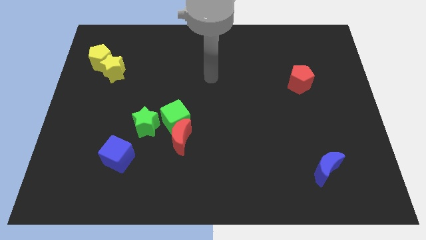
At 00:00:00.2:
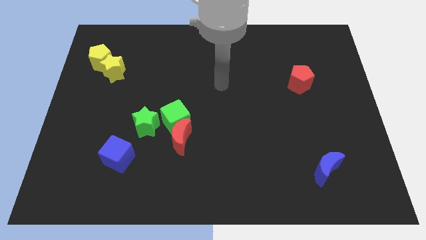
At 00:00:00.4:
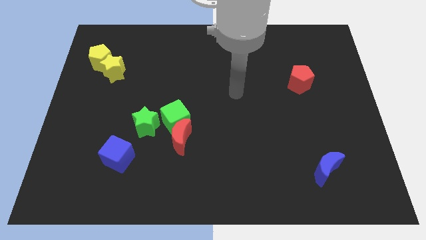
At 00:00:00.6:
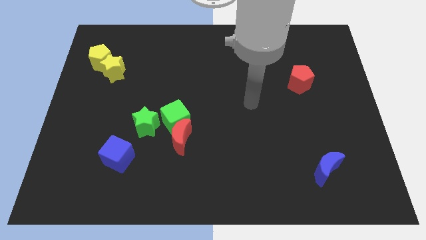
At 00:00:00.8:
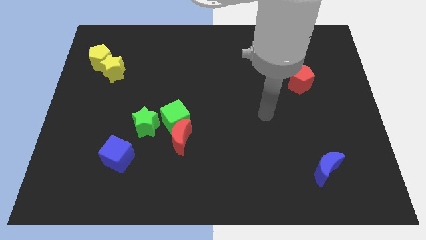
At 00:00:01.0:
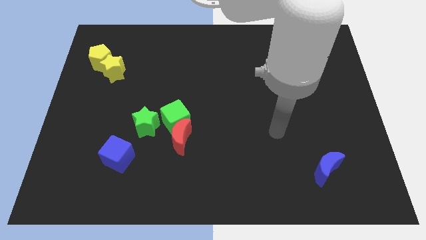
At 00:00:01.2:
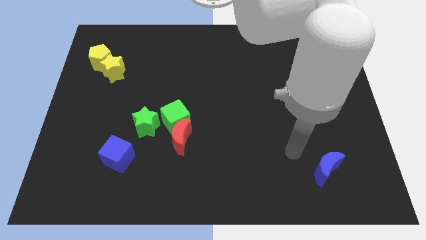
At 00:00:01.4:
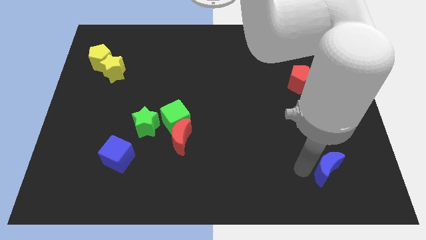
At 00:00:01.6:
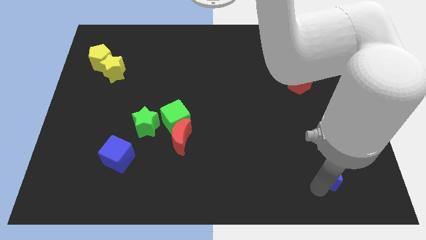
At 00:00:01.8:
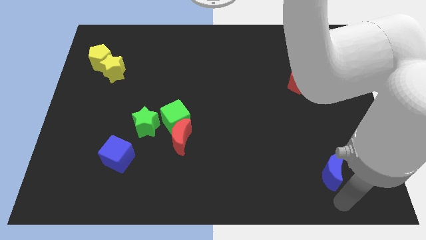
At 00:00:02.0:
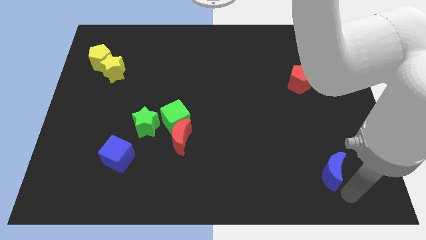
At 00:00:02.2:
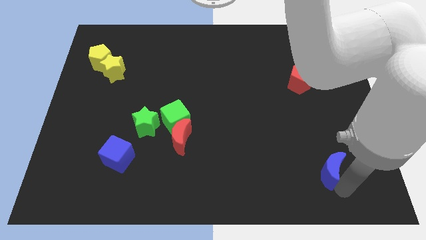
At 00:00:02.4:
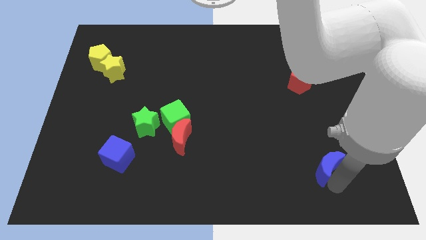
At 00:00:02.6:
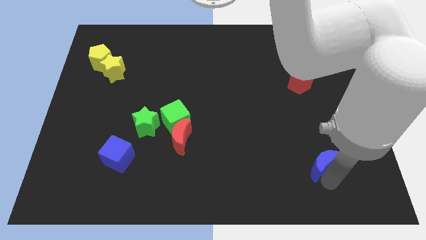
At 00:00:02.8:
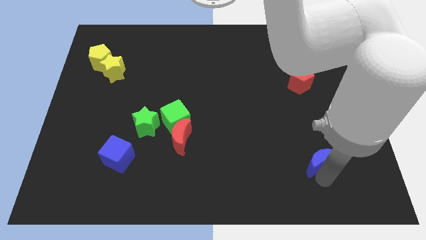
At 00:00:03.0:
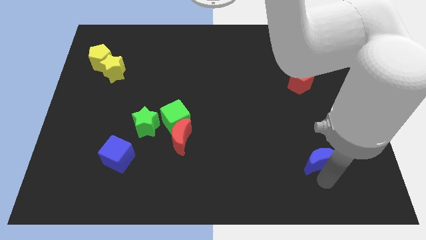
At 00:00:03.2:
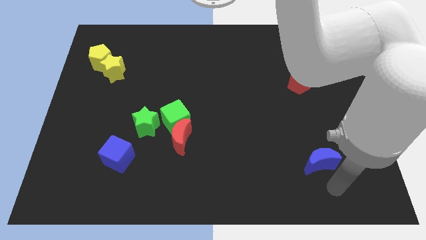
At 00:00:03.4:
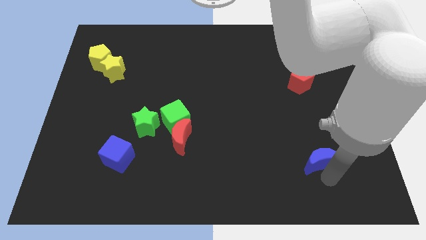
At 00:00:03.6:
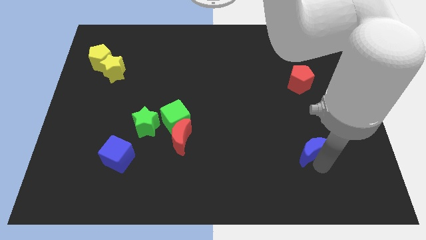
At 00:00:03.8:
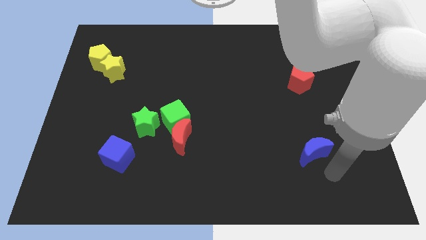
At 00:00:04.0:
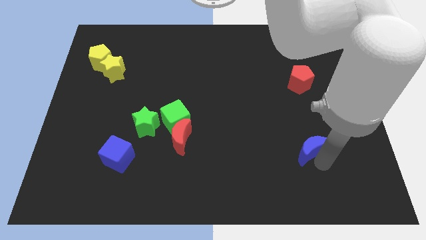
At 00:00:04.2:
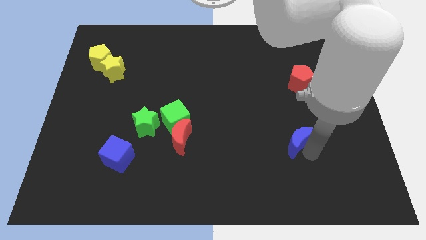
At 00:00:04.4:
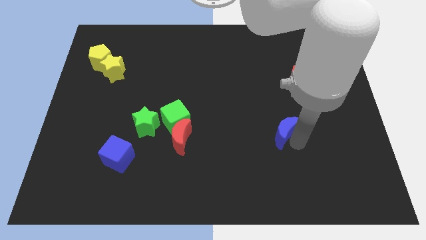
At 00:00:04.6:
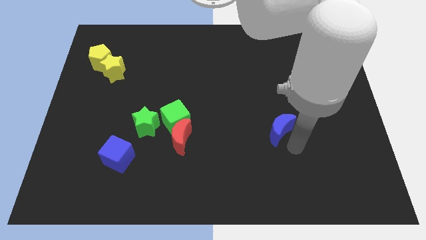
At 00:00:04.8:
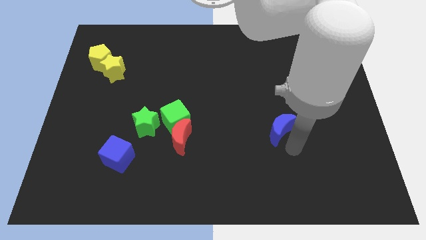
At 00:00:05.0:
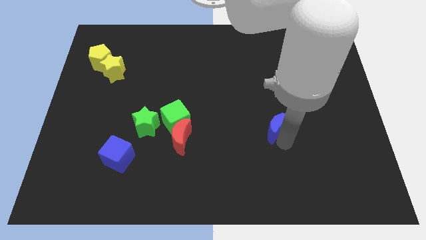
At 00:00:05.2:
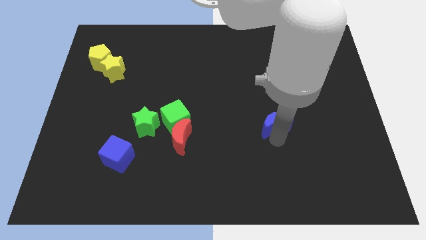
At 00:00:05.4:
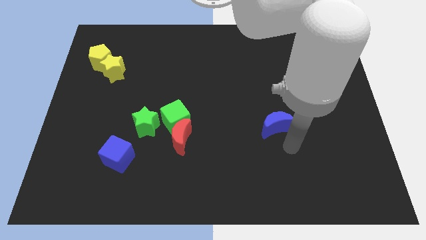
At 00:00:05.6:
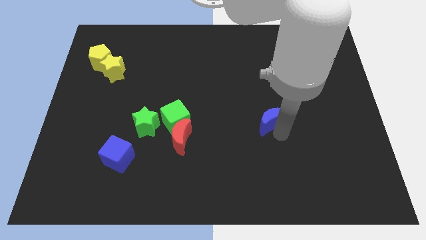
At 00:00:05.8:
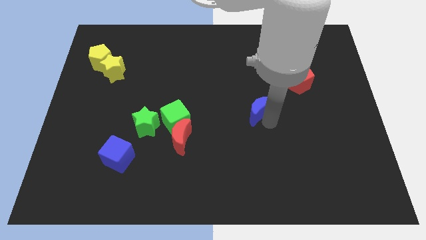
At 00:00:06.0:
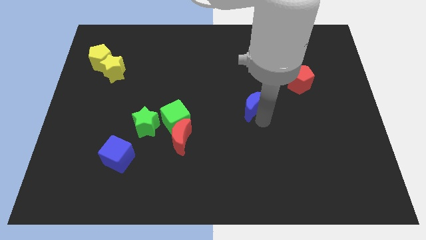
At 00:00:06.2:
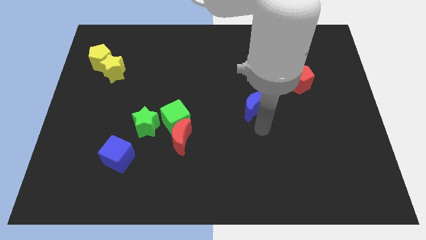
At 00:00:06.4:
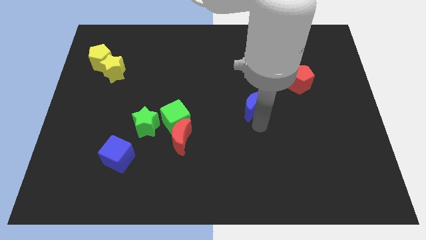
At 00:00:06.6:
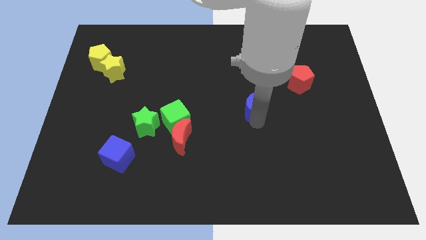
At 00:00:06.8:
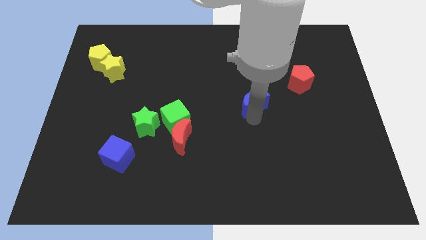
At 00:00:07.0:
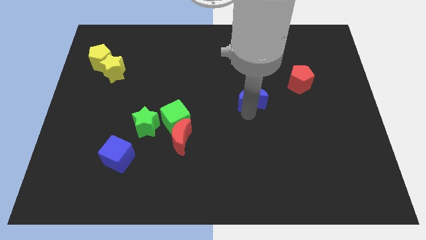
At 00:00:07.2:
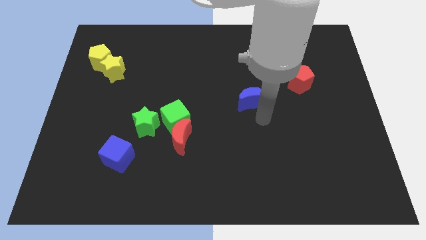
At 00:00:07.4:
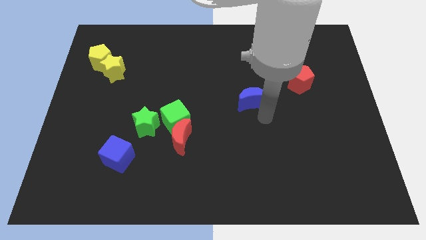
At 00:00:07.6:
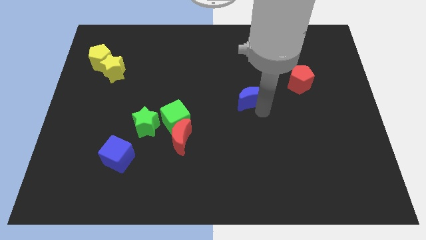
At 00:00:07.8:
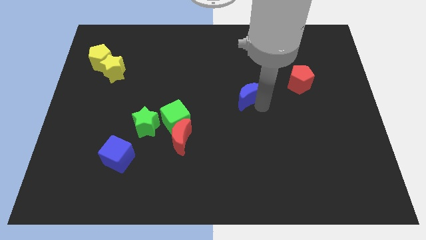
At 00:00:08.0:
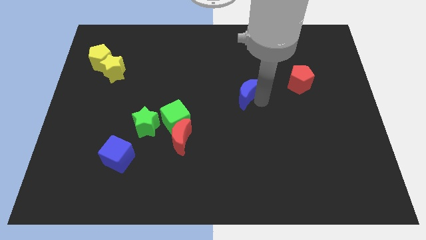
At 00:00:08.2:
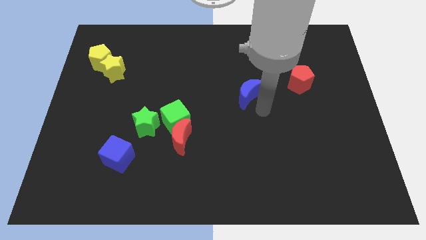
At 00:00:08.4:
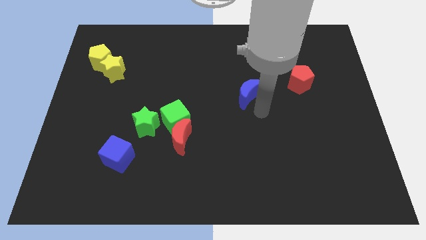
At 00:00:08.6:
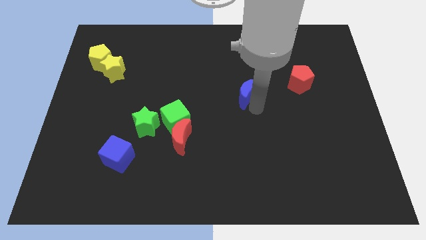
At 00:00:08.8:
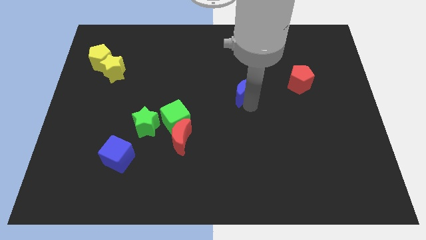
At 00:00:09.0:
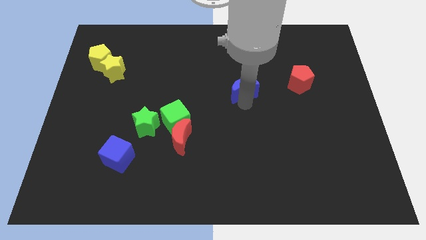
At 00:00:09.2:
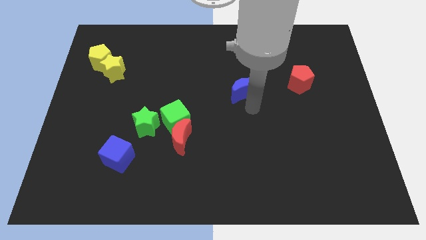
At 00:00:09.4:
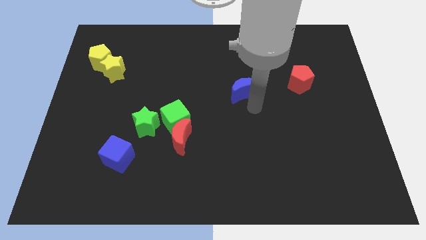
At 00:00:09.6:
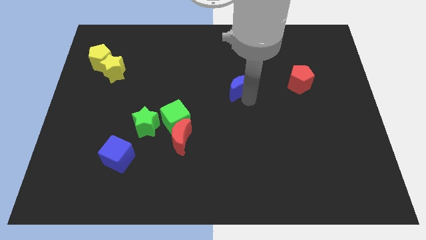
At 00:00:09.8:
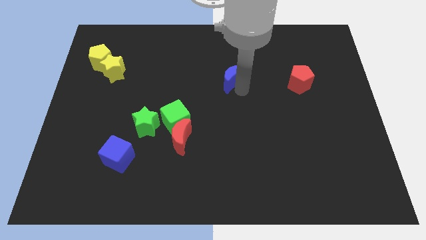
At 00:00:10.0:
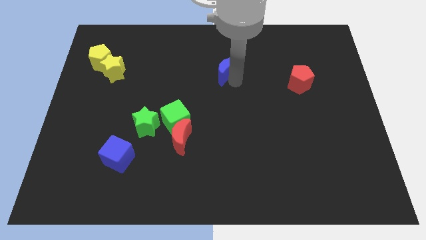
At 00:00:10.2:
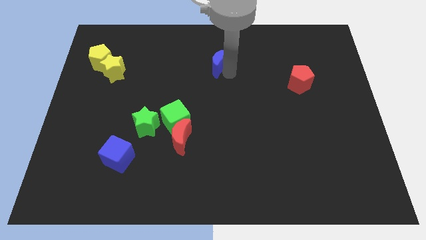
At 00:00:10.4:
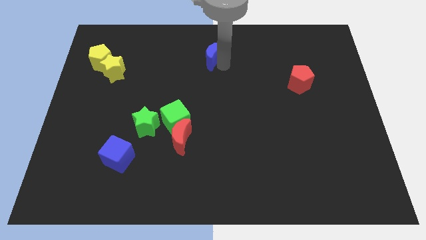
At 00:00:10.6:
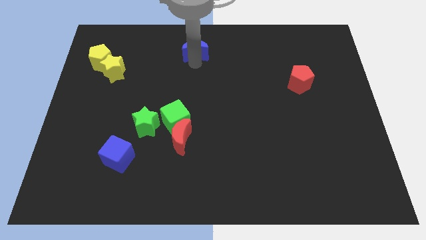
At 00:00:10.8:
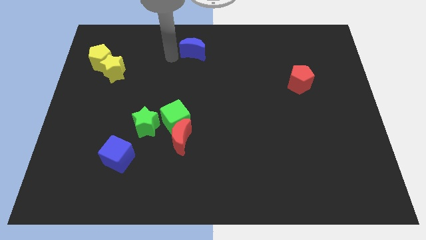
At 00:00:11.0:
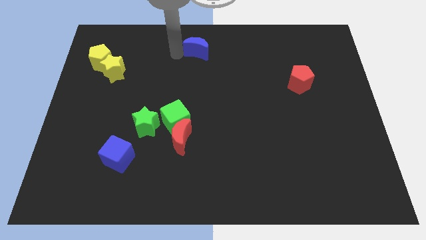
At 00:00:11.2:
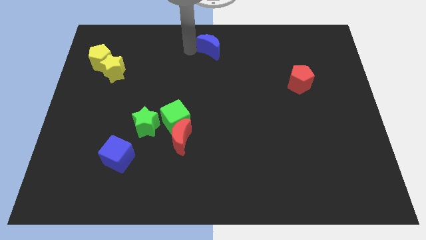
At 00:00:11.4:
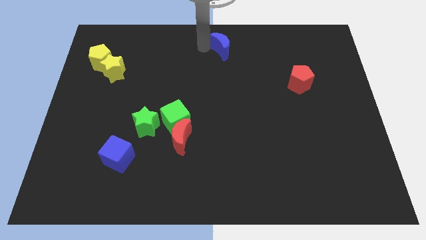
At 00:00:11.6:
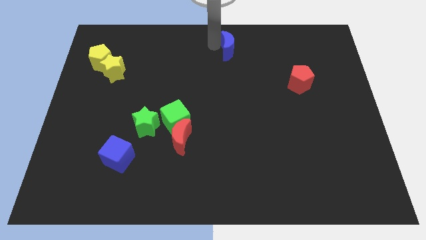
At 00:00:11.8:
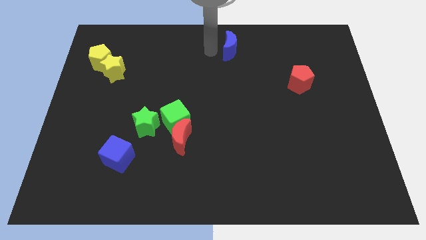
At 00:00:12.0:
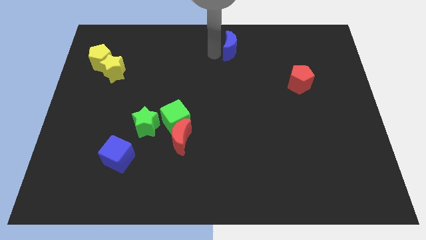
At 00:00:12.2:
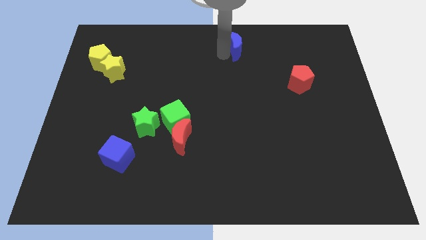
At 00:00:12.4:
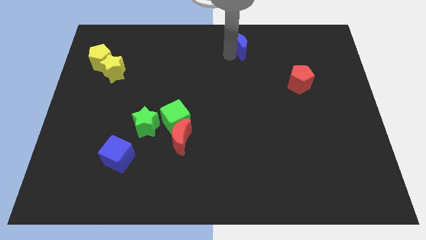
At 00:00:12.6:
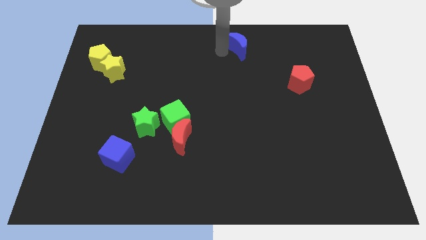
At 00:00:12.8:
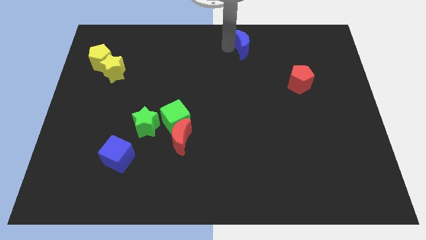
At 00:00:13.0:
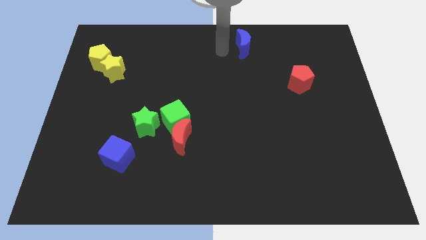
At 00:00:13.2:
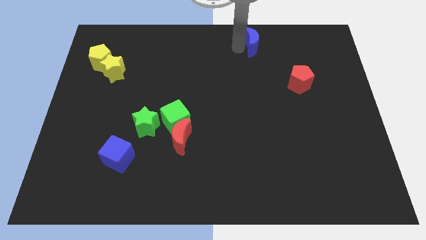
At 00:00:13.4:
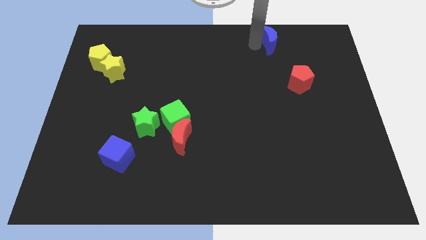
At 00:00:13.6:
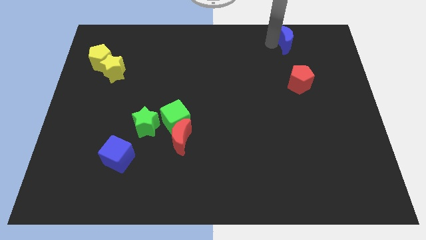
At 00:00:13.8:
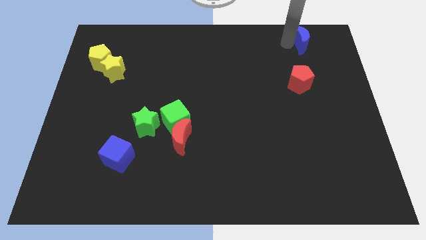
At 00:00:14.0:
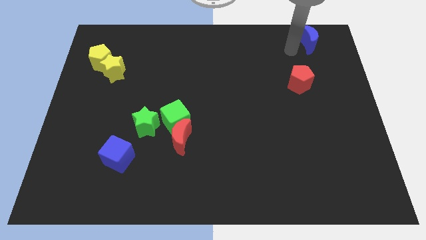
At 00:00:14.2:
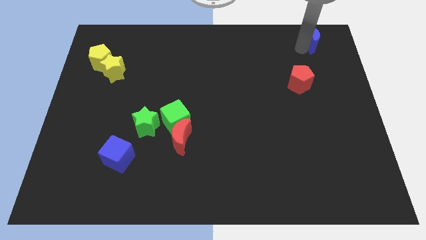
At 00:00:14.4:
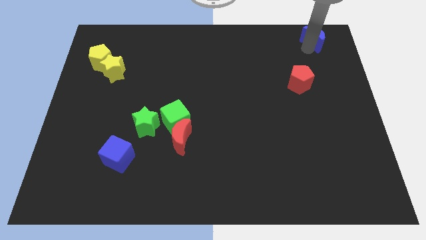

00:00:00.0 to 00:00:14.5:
move the blue moon to the top right of the board
